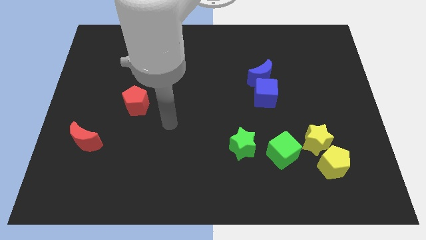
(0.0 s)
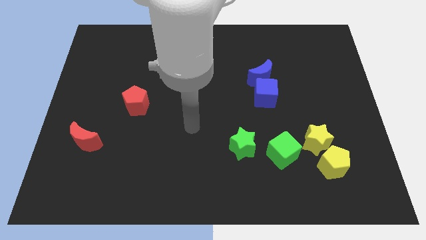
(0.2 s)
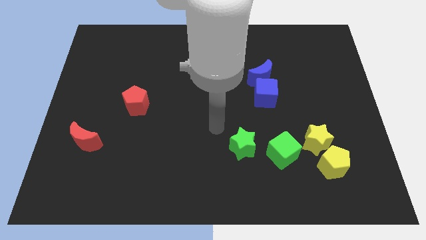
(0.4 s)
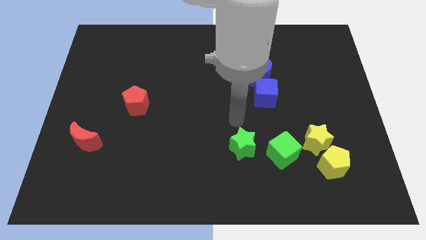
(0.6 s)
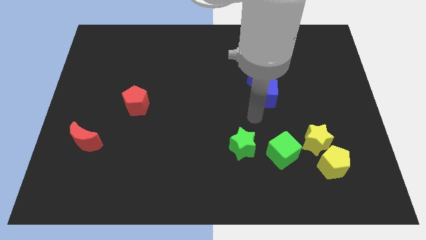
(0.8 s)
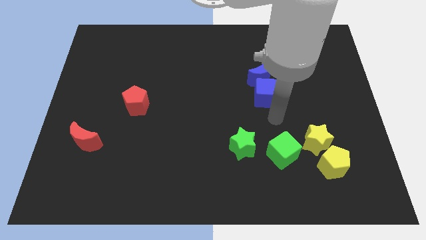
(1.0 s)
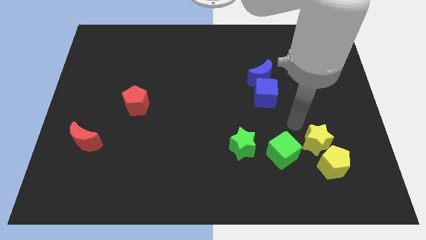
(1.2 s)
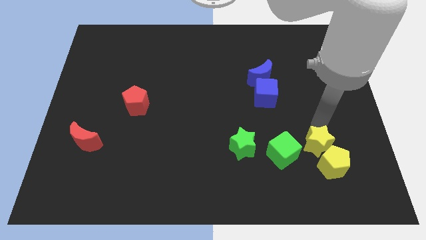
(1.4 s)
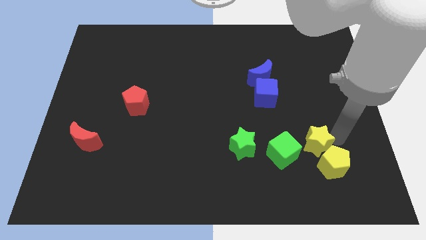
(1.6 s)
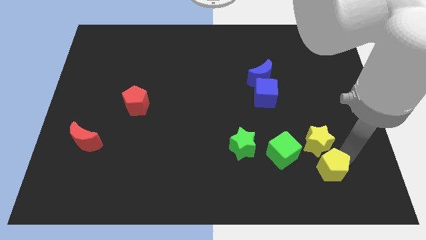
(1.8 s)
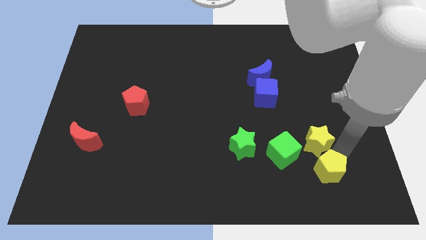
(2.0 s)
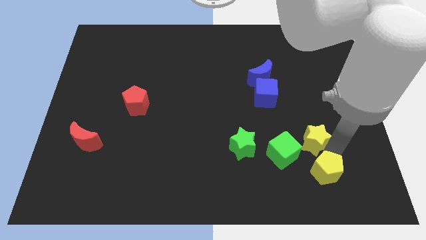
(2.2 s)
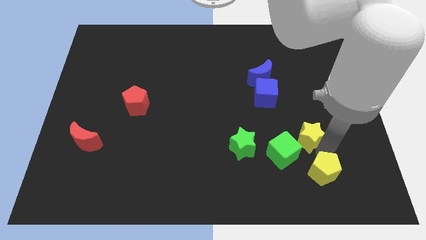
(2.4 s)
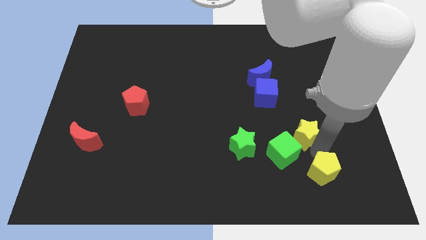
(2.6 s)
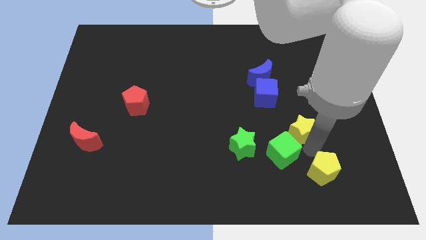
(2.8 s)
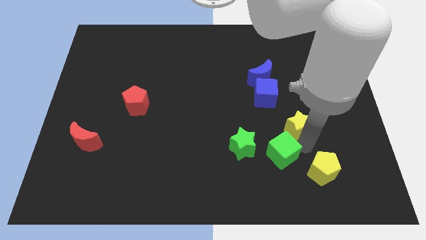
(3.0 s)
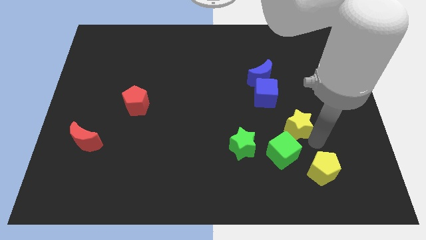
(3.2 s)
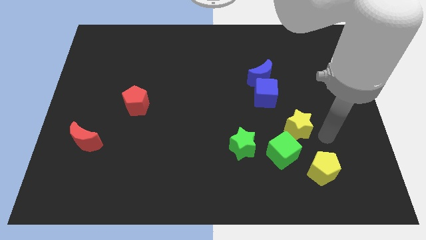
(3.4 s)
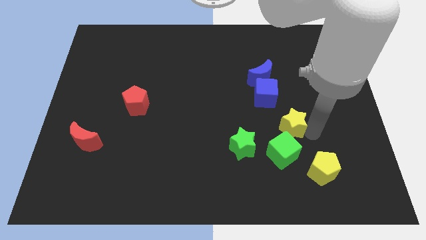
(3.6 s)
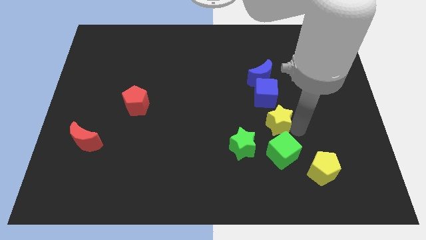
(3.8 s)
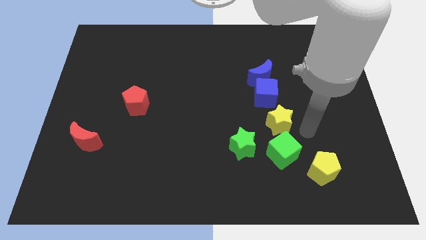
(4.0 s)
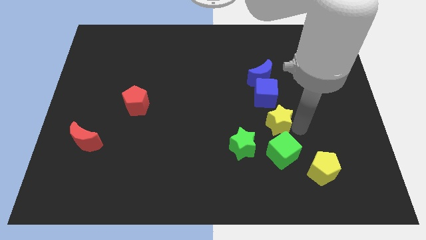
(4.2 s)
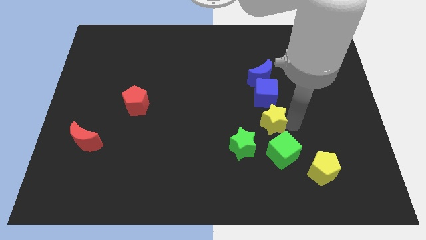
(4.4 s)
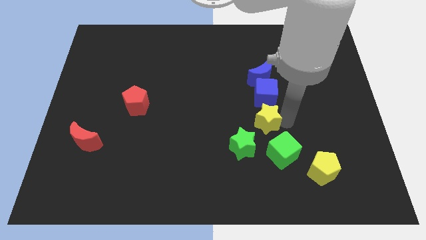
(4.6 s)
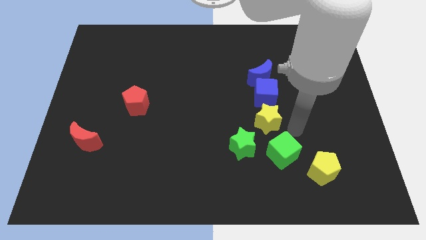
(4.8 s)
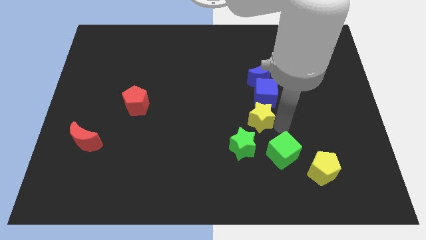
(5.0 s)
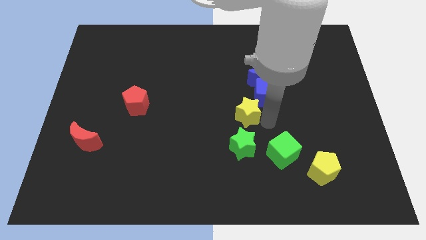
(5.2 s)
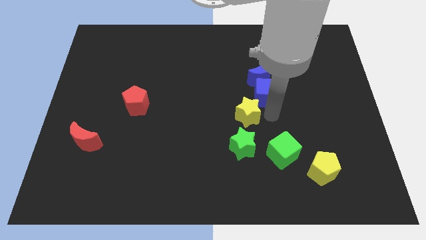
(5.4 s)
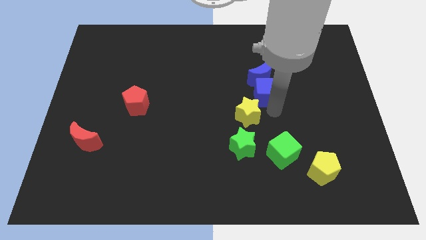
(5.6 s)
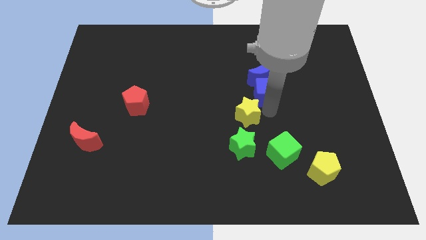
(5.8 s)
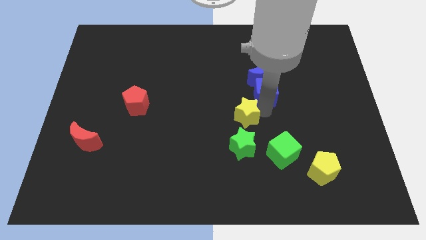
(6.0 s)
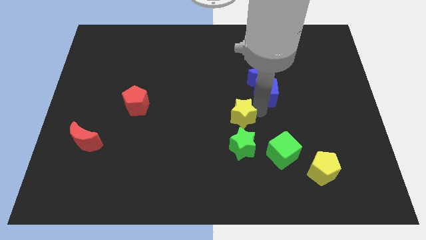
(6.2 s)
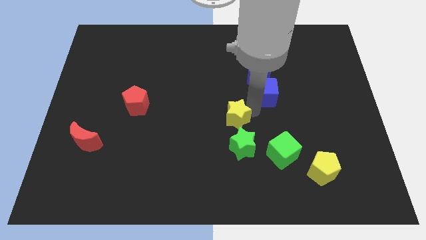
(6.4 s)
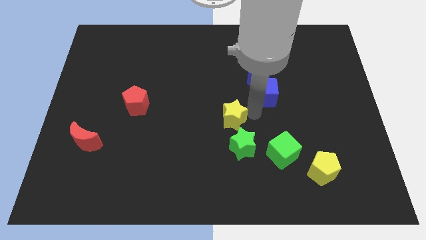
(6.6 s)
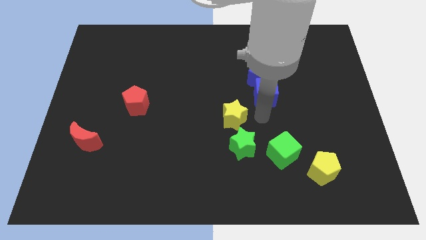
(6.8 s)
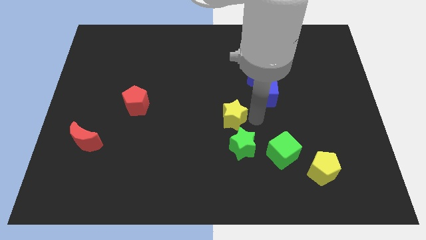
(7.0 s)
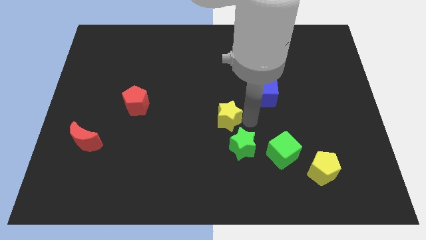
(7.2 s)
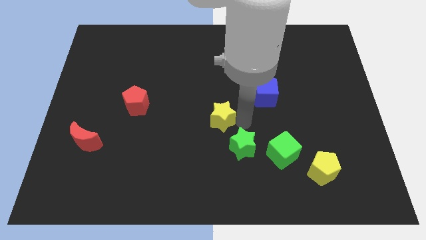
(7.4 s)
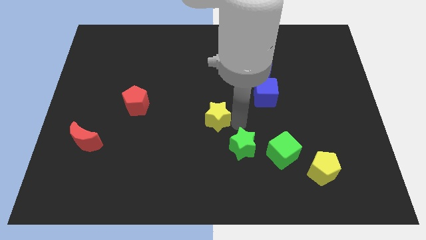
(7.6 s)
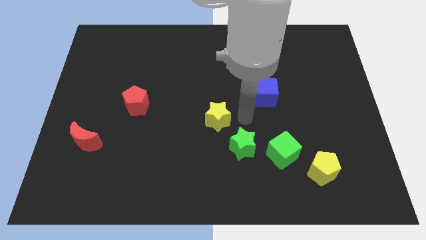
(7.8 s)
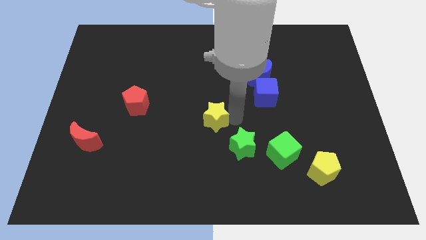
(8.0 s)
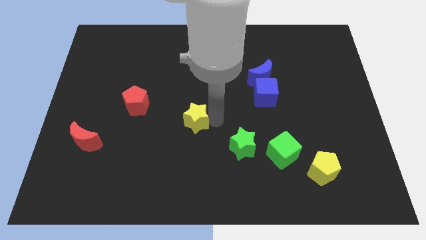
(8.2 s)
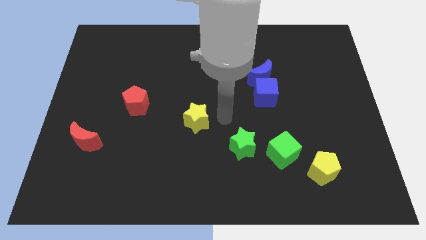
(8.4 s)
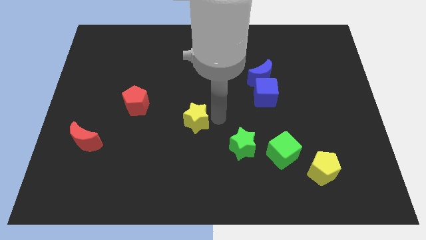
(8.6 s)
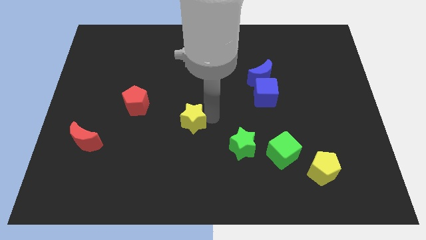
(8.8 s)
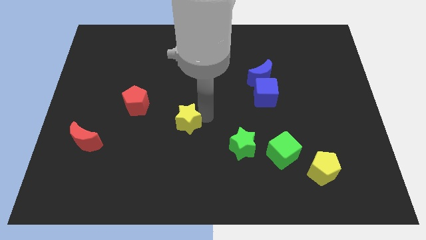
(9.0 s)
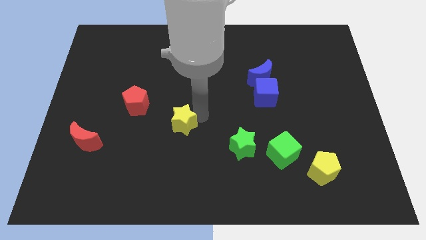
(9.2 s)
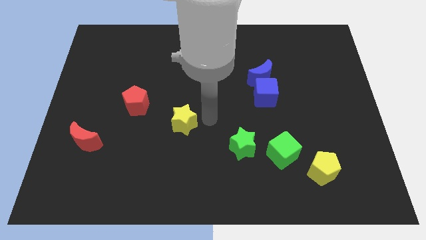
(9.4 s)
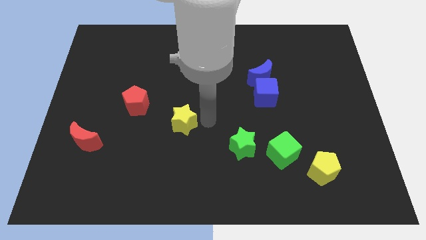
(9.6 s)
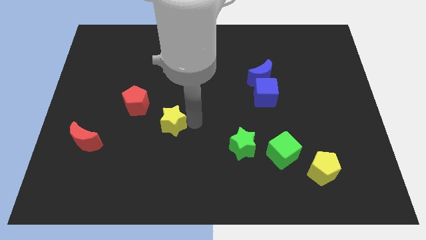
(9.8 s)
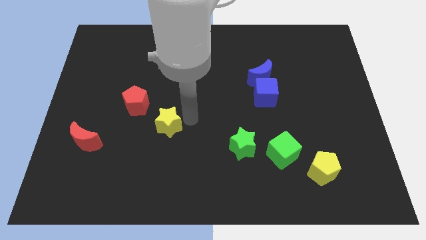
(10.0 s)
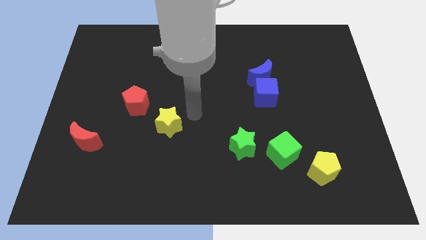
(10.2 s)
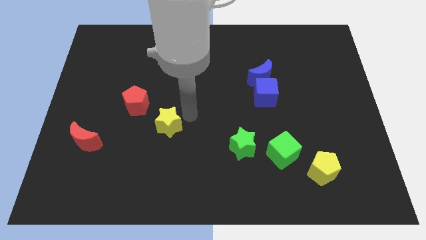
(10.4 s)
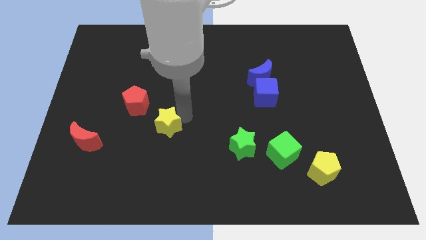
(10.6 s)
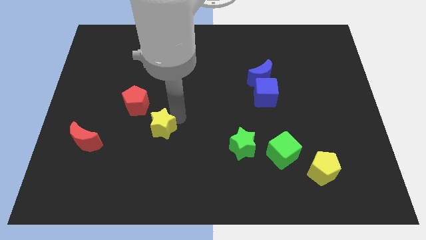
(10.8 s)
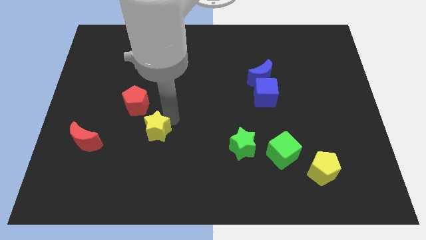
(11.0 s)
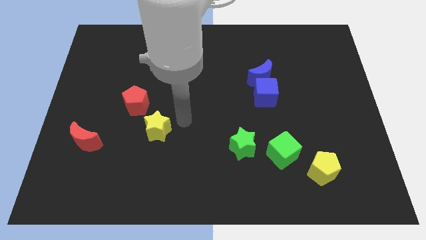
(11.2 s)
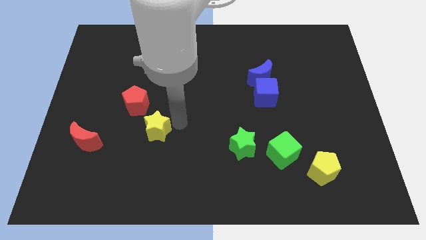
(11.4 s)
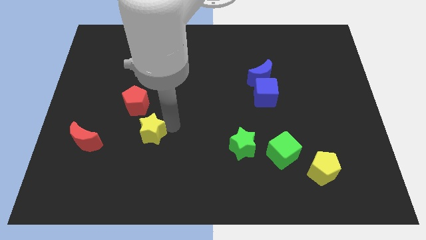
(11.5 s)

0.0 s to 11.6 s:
push the yellow star below the red pentagon

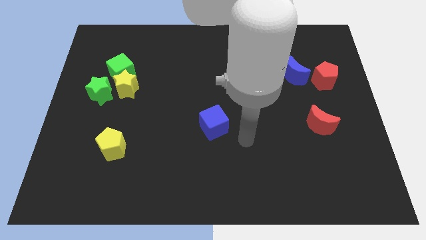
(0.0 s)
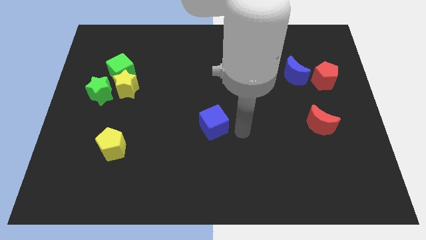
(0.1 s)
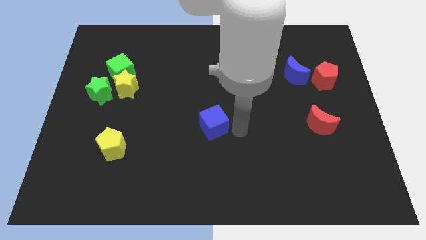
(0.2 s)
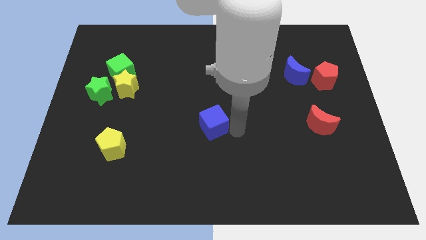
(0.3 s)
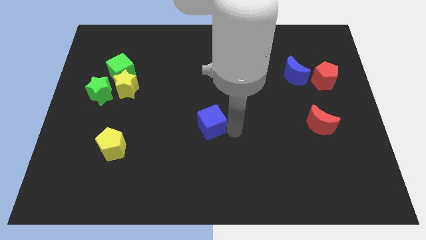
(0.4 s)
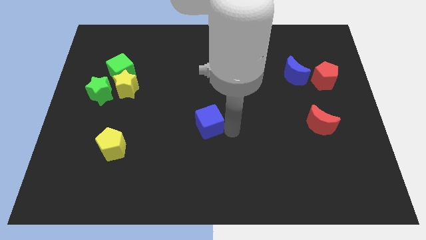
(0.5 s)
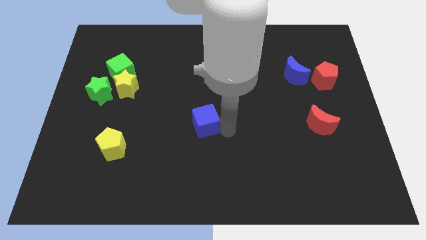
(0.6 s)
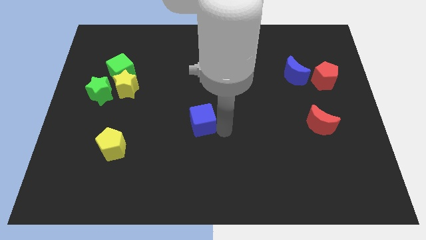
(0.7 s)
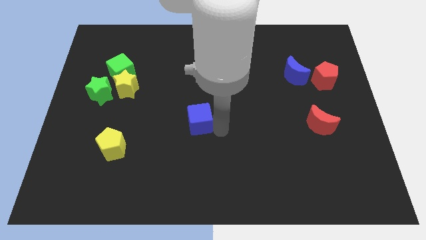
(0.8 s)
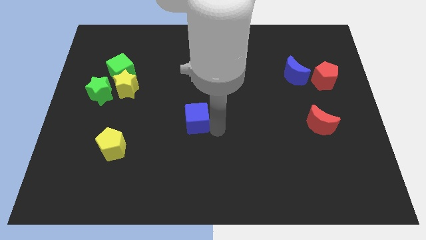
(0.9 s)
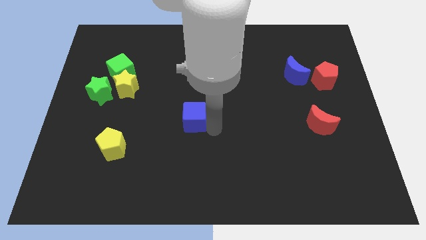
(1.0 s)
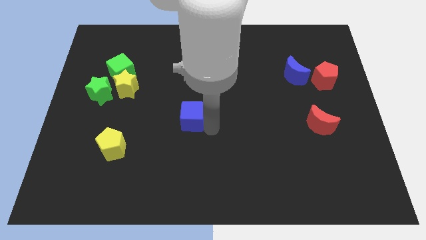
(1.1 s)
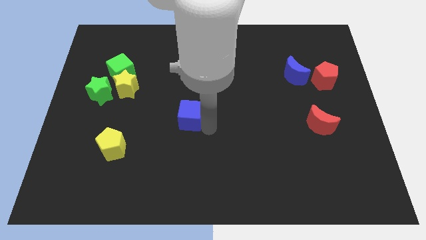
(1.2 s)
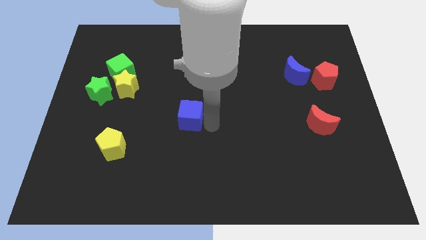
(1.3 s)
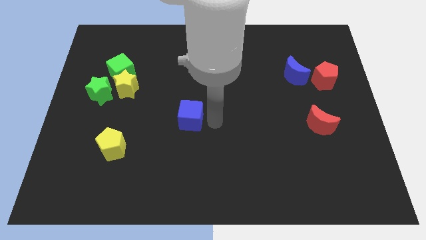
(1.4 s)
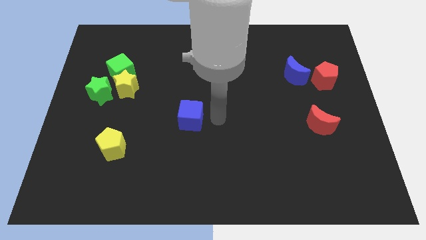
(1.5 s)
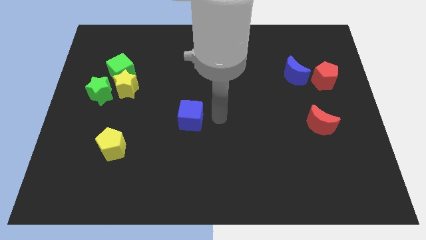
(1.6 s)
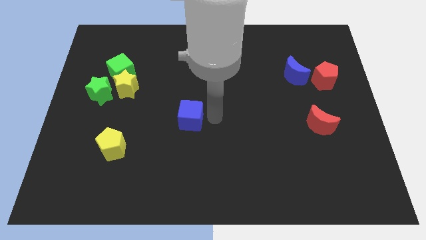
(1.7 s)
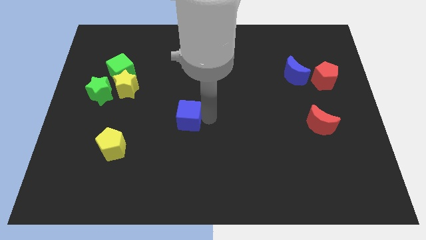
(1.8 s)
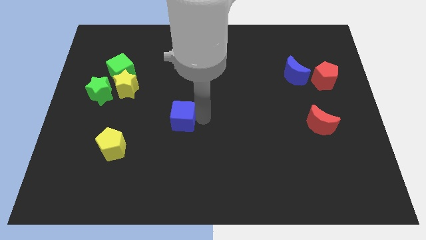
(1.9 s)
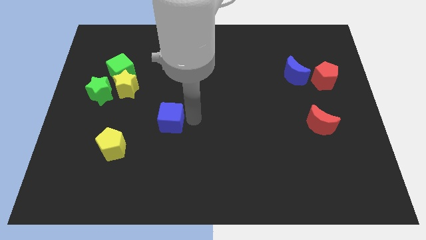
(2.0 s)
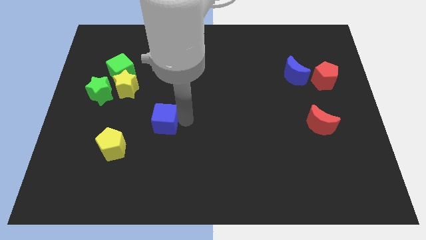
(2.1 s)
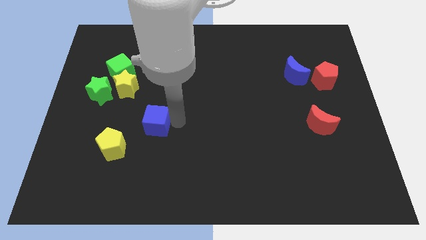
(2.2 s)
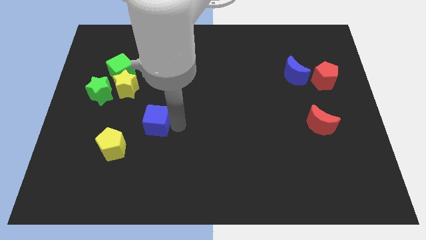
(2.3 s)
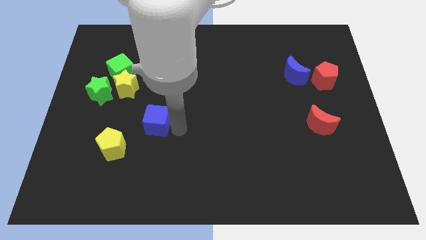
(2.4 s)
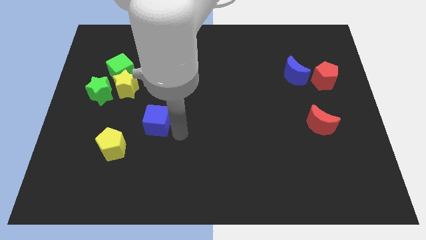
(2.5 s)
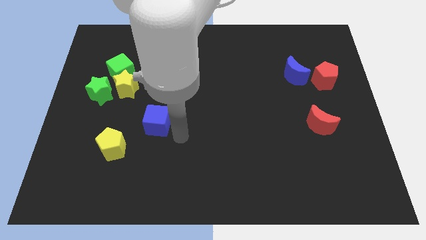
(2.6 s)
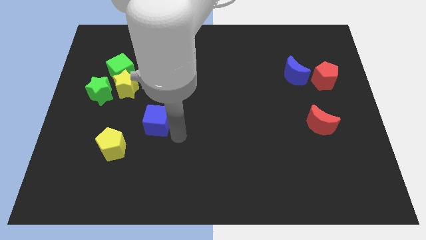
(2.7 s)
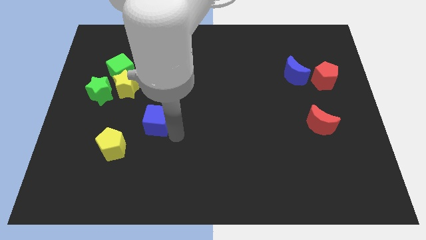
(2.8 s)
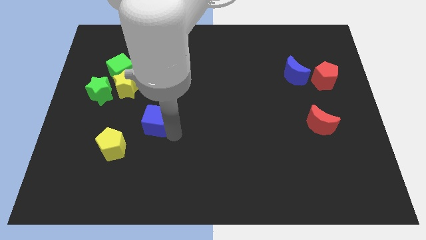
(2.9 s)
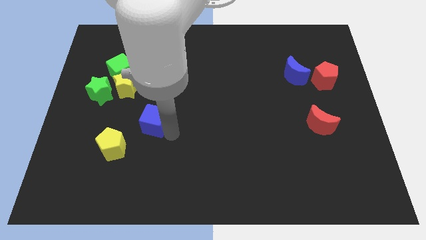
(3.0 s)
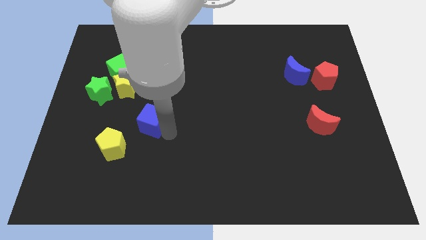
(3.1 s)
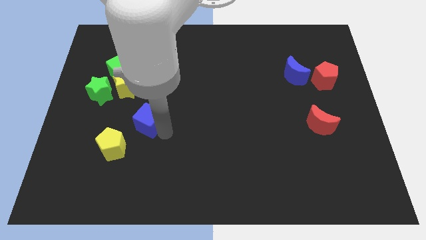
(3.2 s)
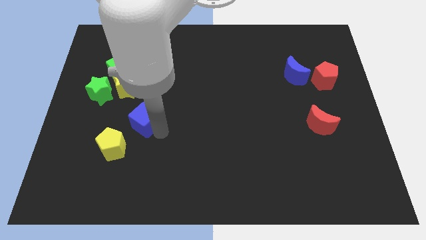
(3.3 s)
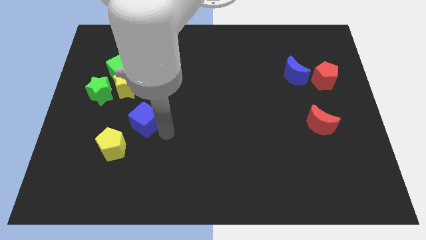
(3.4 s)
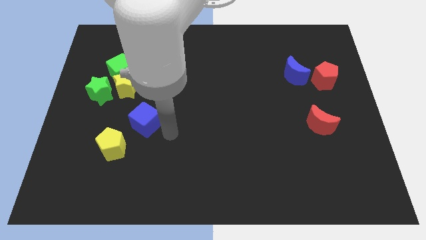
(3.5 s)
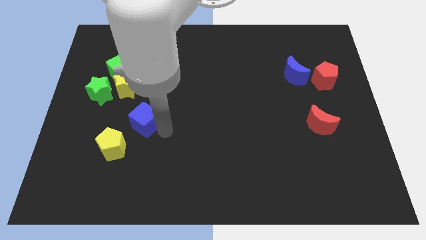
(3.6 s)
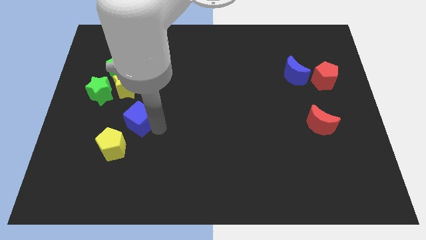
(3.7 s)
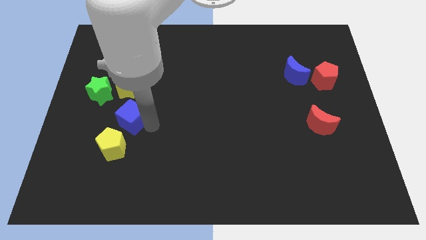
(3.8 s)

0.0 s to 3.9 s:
push the blue cube to the bottom right side of the green star
